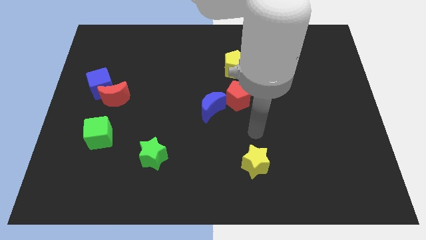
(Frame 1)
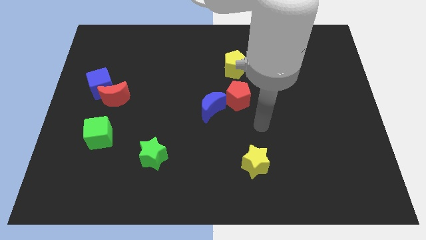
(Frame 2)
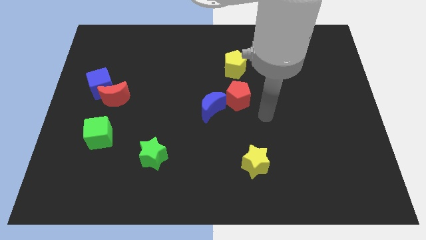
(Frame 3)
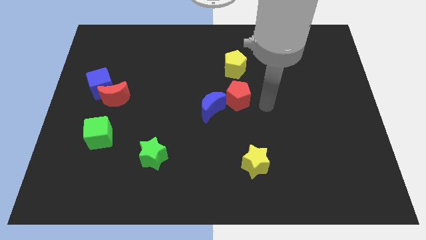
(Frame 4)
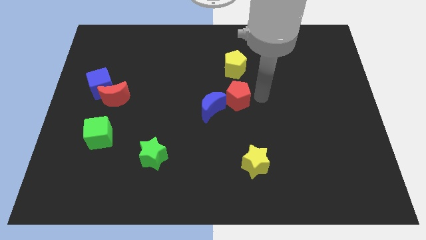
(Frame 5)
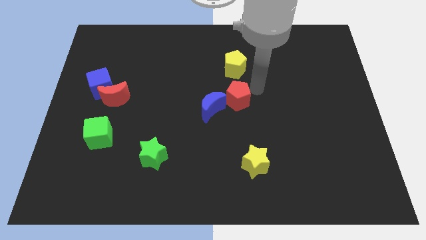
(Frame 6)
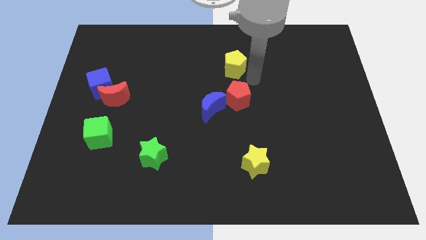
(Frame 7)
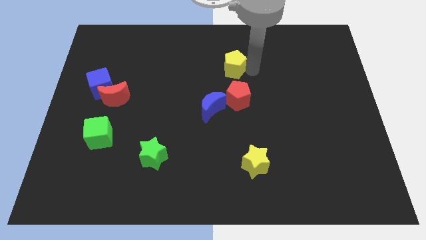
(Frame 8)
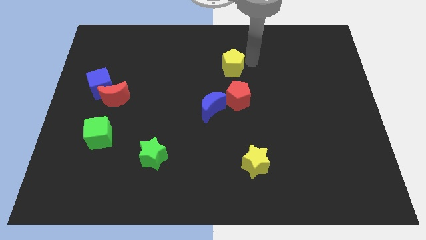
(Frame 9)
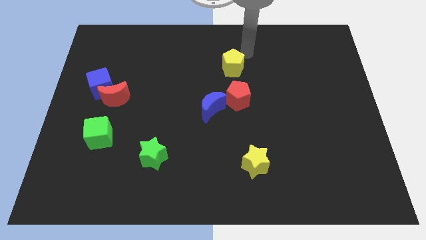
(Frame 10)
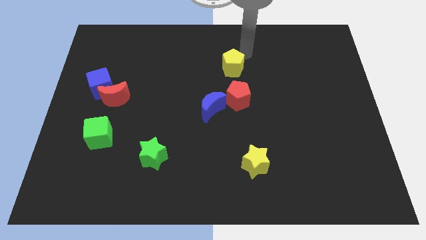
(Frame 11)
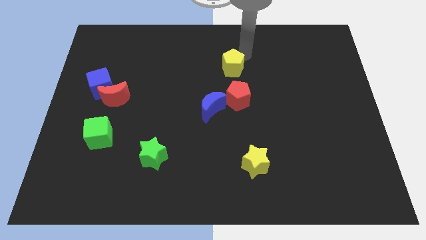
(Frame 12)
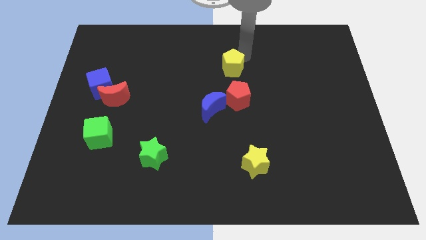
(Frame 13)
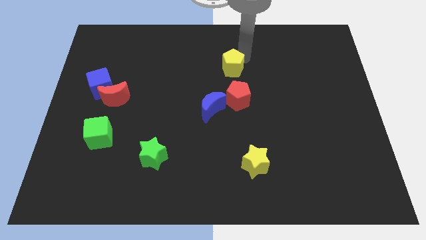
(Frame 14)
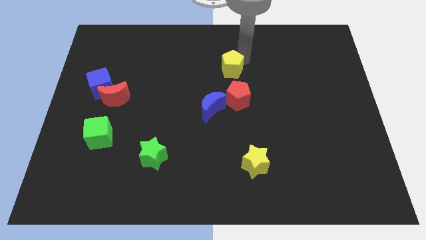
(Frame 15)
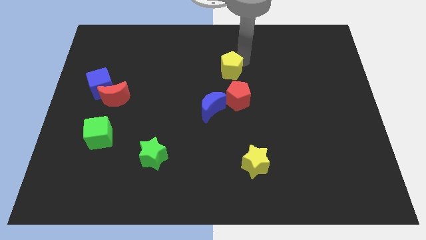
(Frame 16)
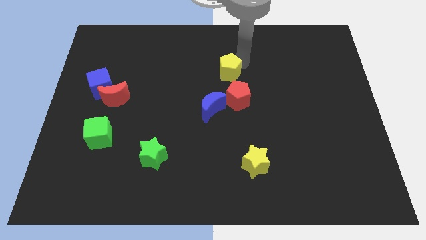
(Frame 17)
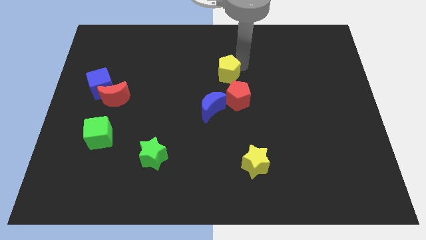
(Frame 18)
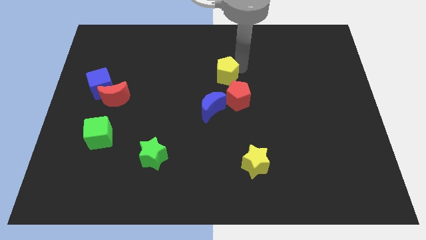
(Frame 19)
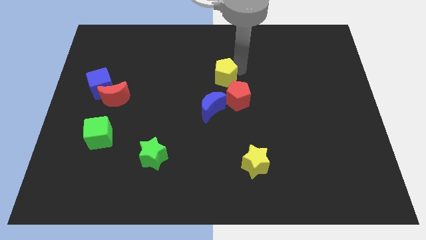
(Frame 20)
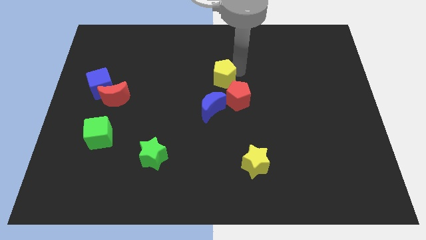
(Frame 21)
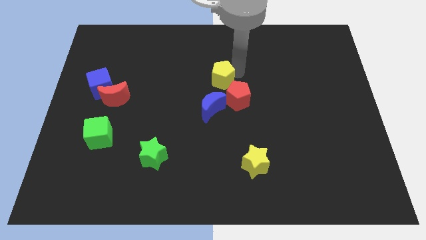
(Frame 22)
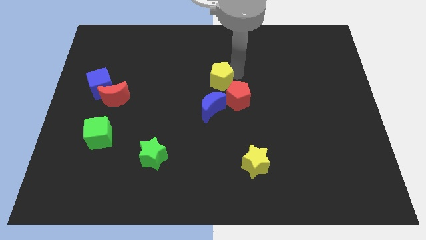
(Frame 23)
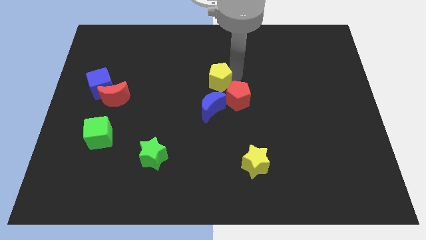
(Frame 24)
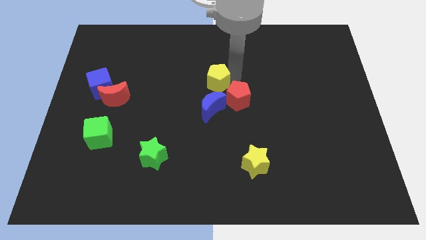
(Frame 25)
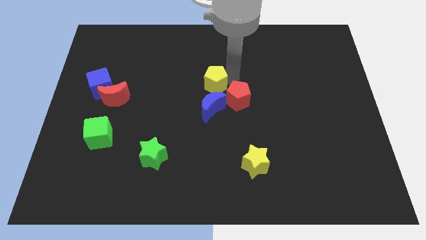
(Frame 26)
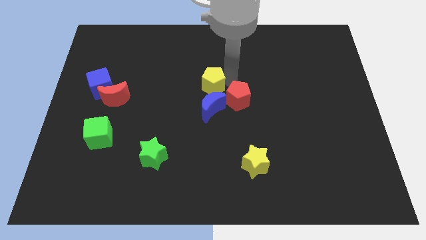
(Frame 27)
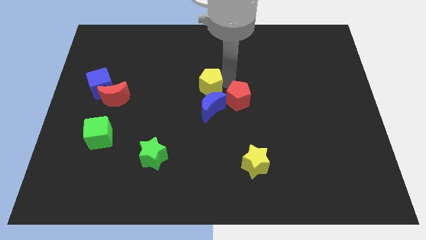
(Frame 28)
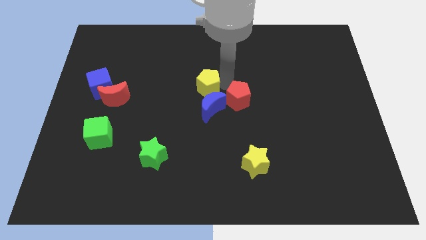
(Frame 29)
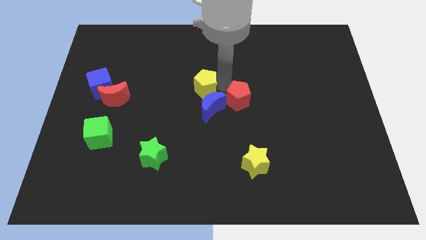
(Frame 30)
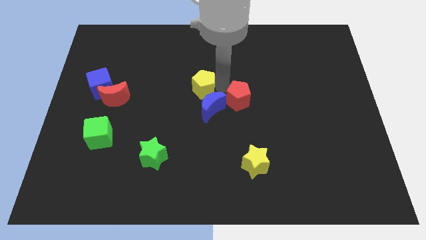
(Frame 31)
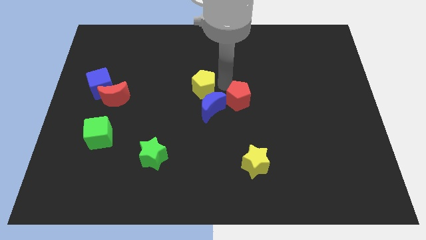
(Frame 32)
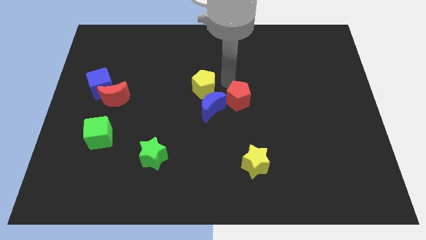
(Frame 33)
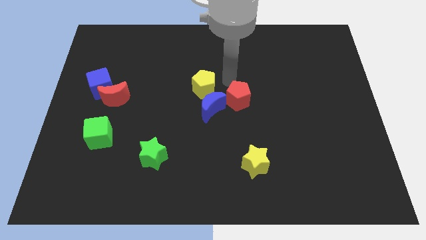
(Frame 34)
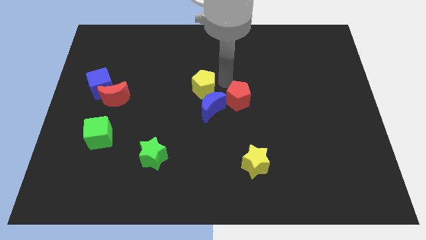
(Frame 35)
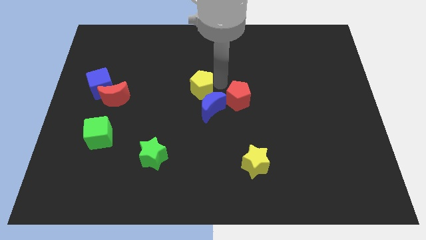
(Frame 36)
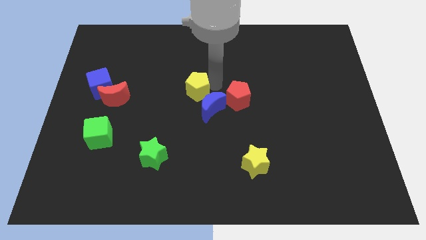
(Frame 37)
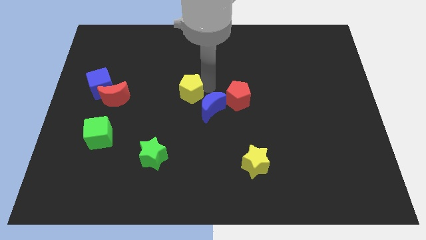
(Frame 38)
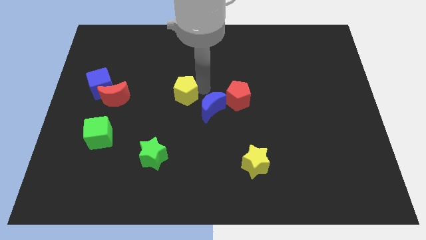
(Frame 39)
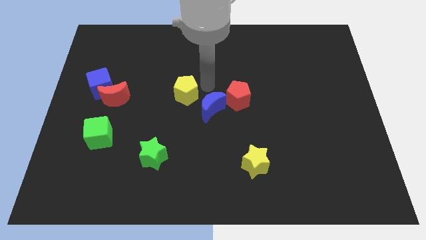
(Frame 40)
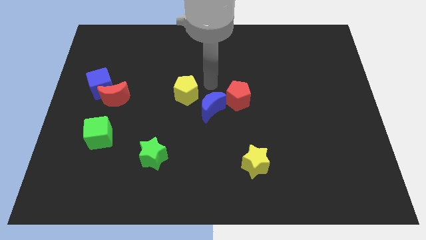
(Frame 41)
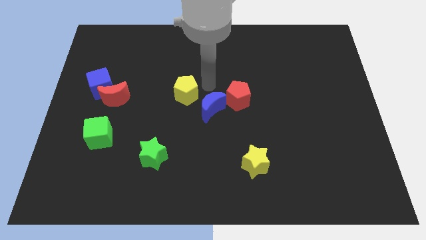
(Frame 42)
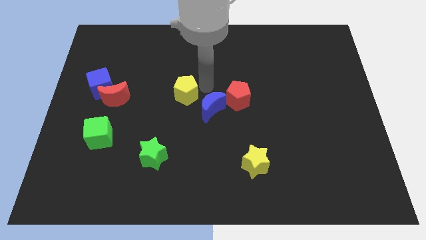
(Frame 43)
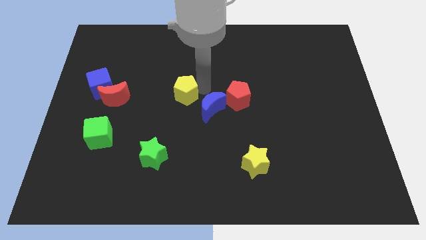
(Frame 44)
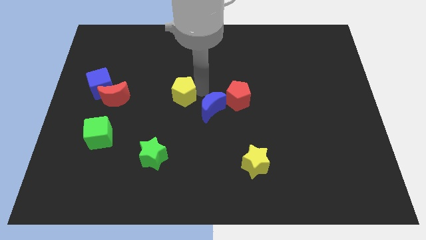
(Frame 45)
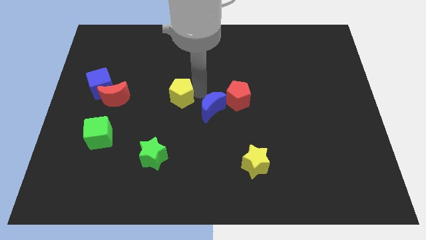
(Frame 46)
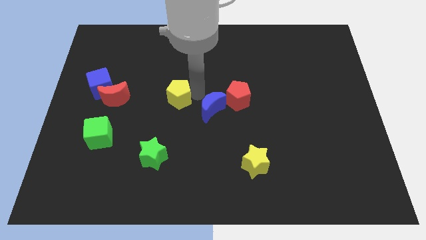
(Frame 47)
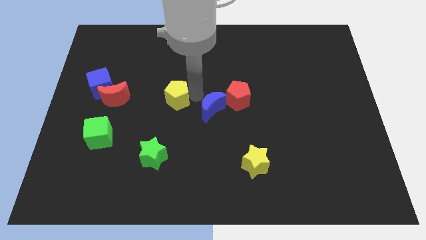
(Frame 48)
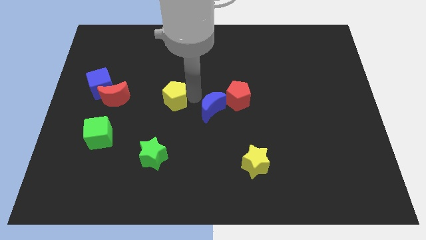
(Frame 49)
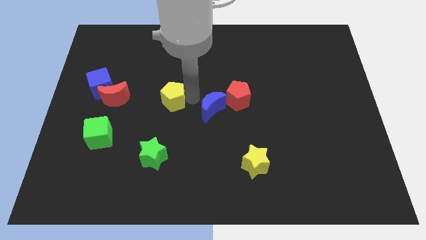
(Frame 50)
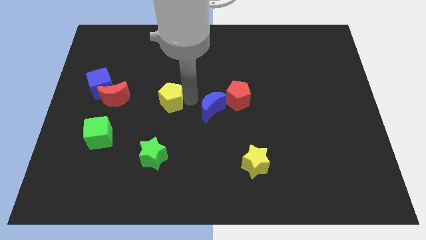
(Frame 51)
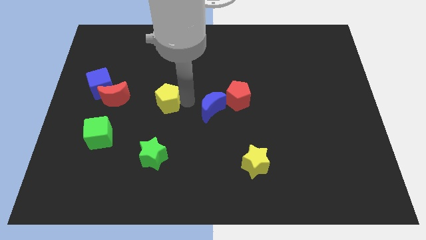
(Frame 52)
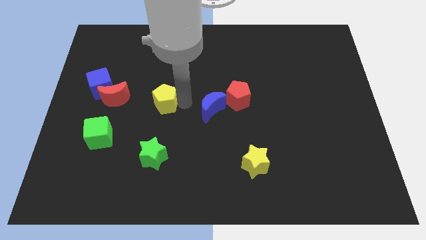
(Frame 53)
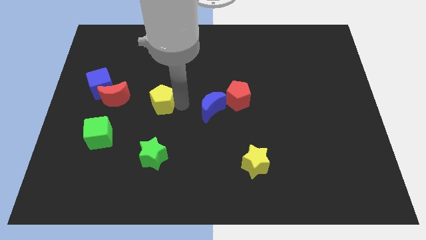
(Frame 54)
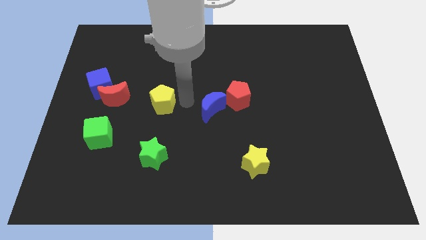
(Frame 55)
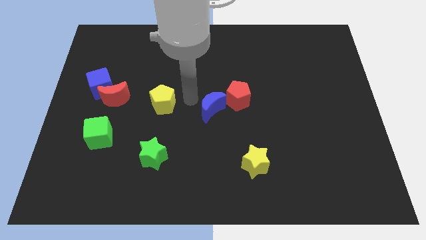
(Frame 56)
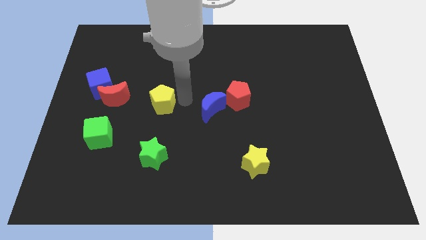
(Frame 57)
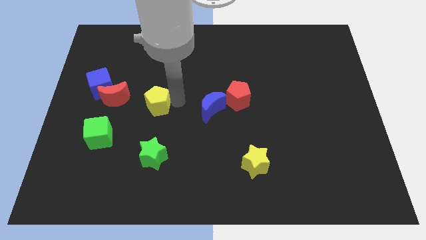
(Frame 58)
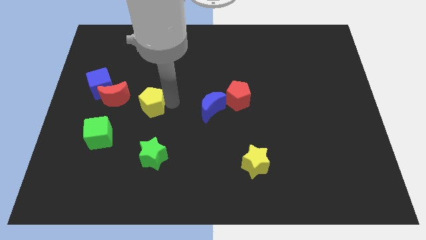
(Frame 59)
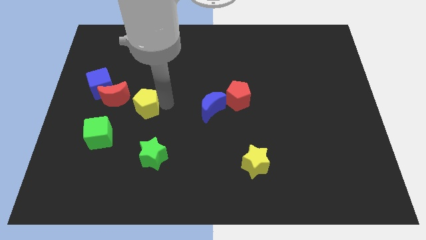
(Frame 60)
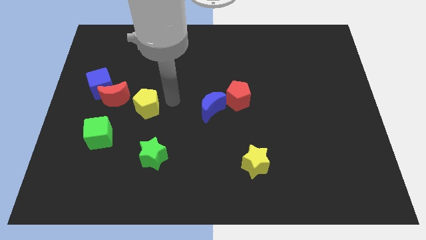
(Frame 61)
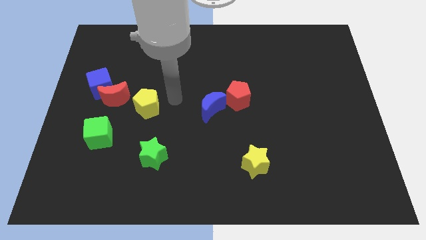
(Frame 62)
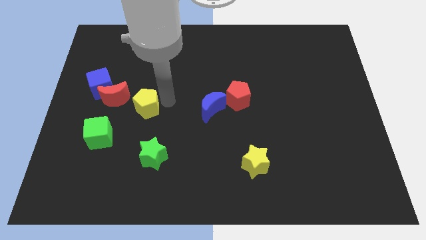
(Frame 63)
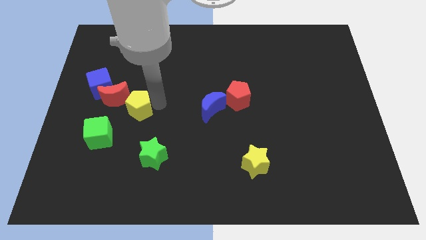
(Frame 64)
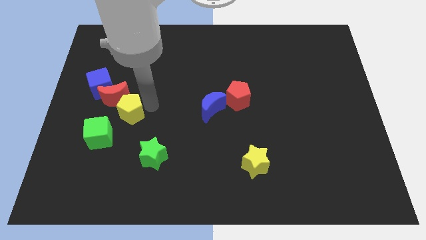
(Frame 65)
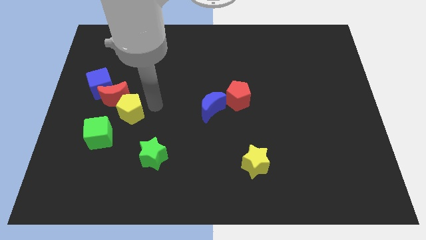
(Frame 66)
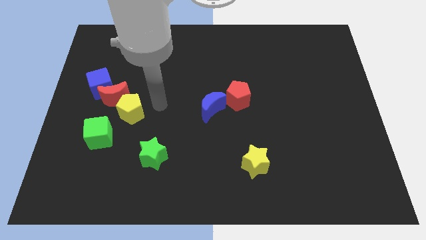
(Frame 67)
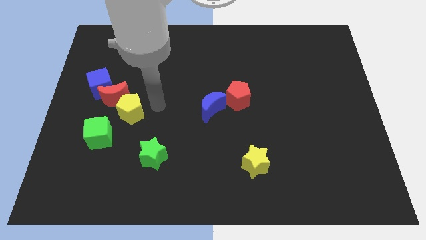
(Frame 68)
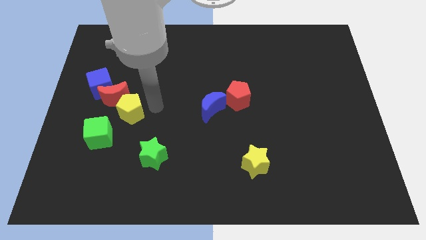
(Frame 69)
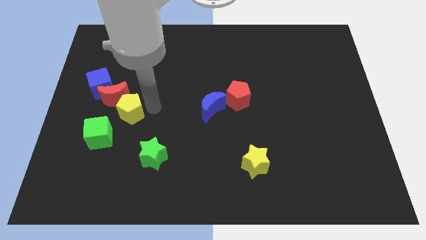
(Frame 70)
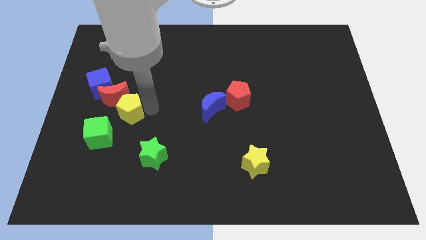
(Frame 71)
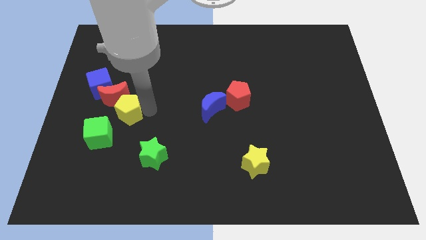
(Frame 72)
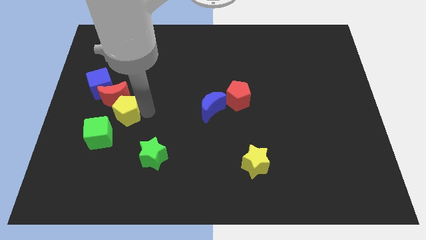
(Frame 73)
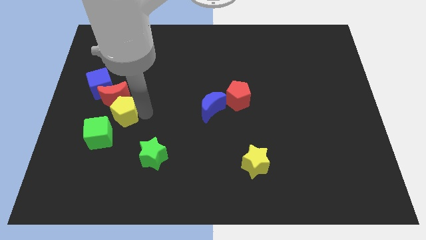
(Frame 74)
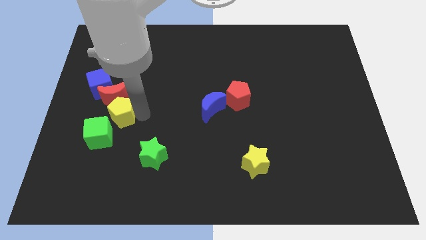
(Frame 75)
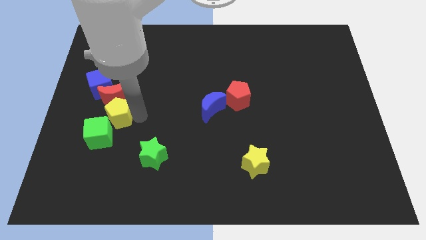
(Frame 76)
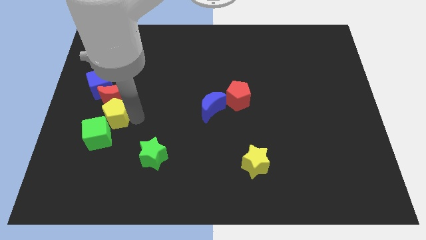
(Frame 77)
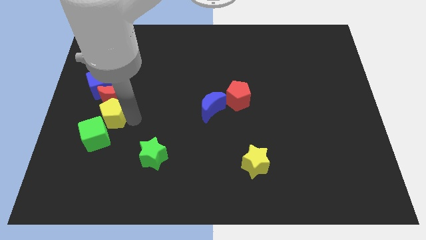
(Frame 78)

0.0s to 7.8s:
push the yellow pentagon to the bottom of the blue cube
